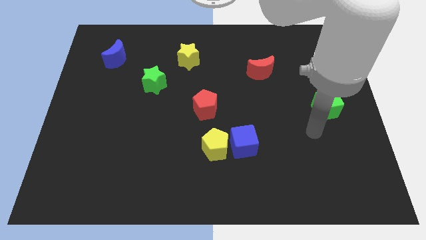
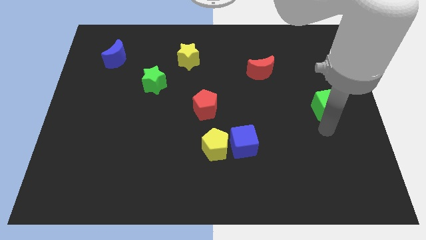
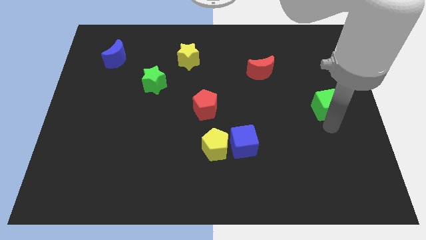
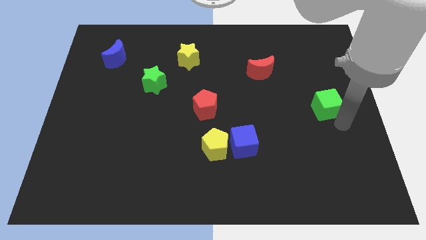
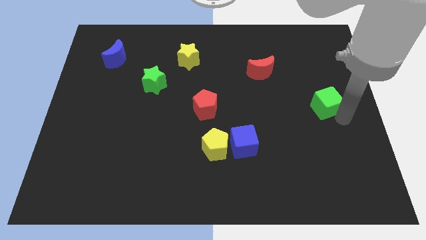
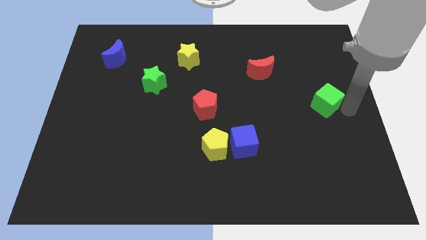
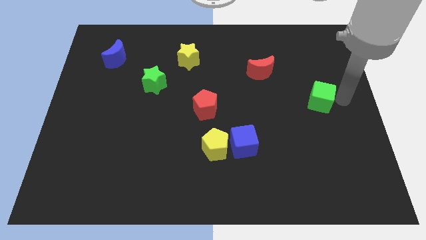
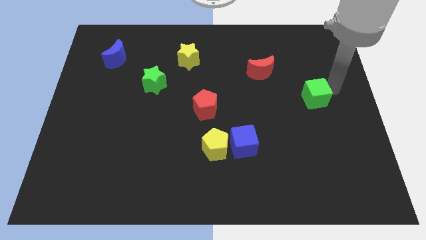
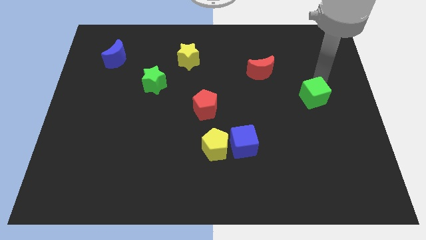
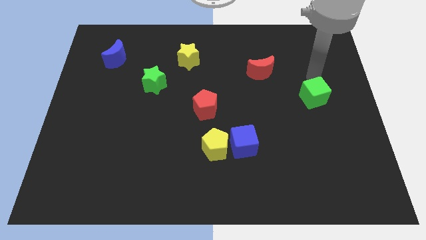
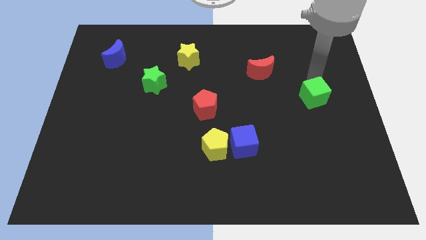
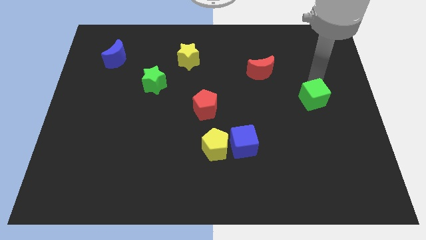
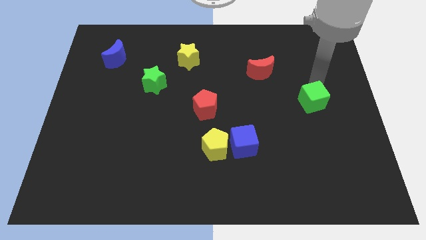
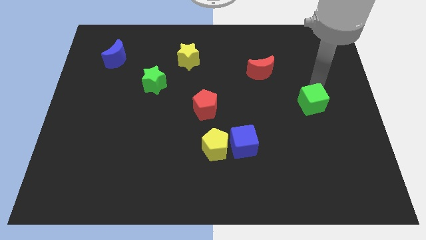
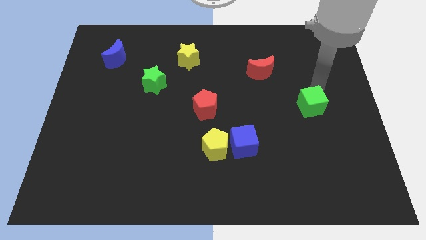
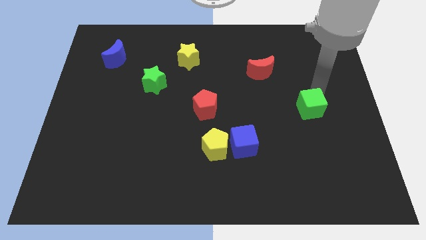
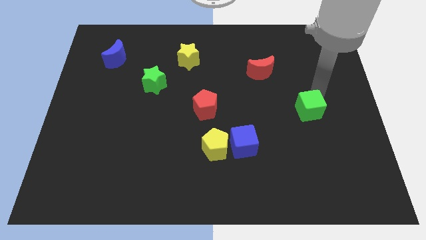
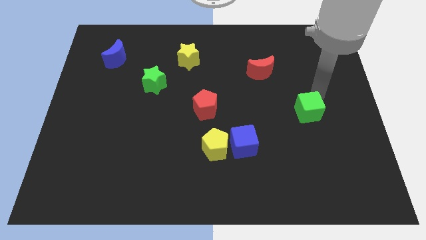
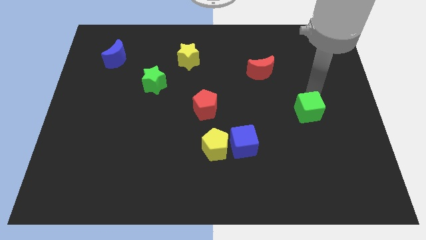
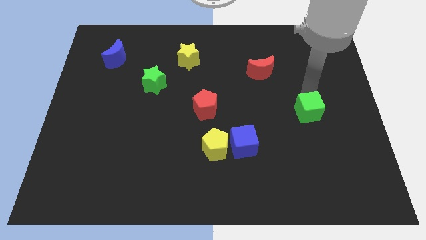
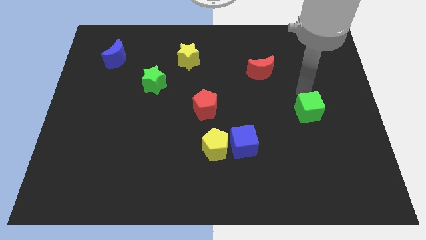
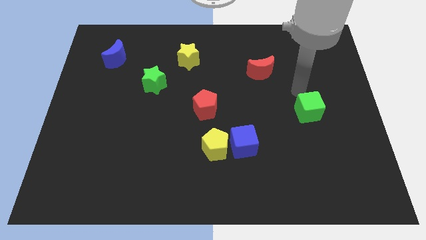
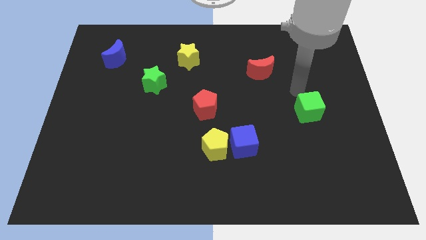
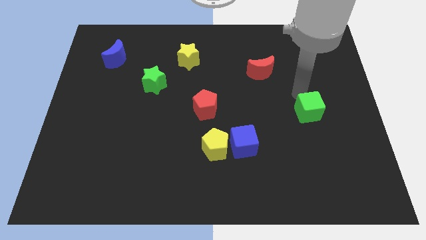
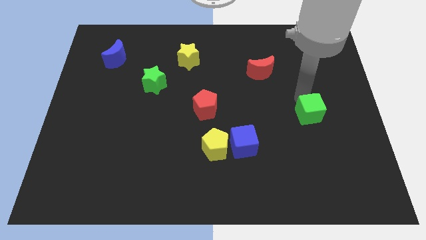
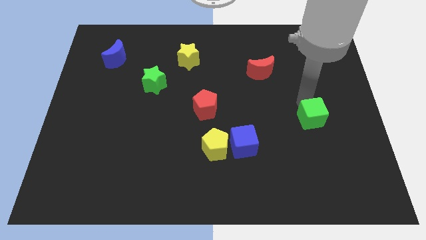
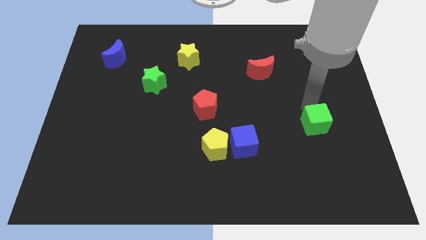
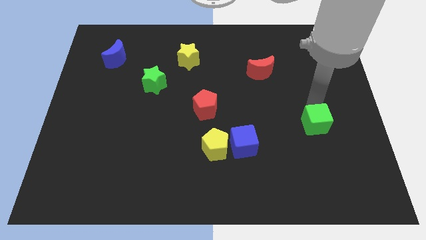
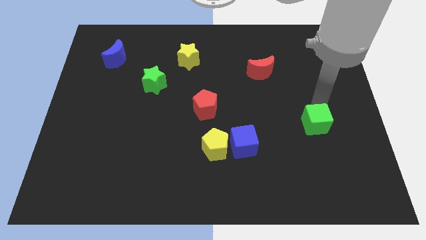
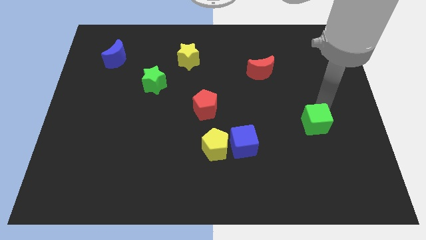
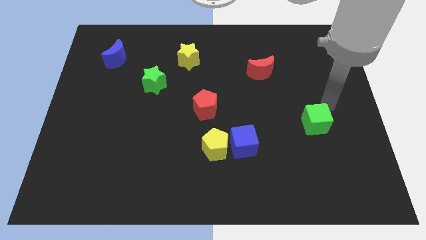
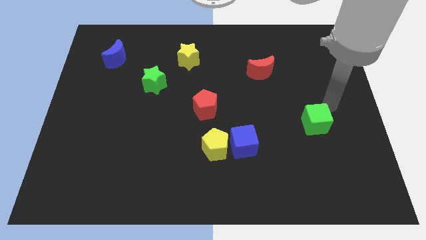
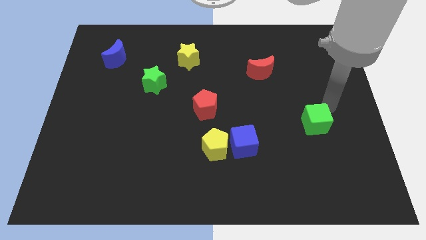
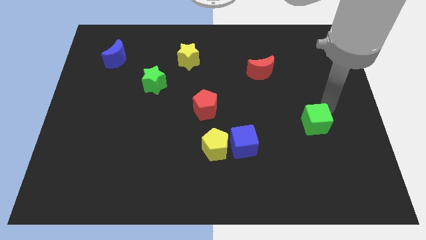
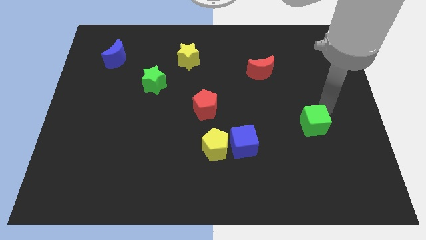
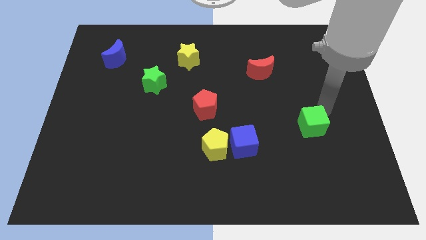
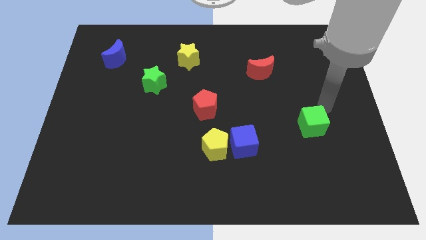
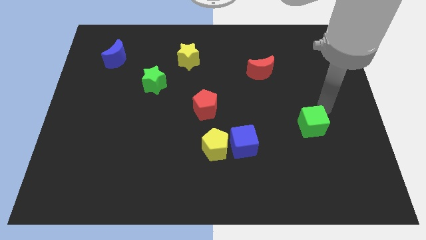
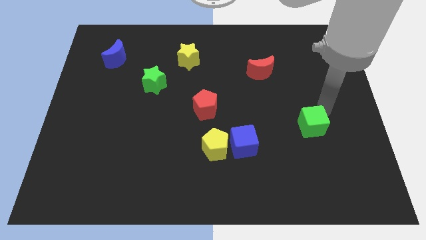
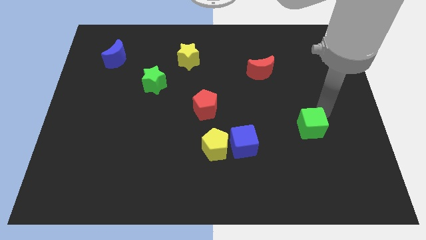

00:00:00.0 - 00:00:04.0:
slightly slide the green cube diagonally downwards and to the left

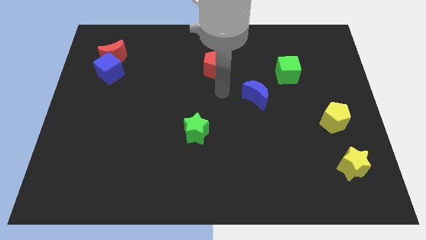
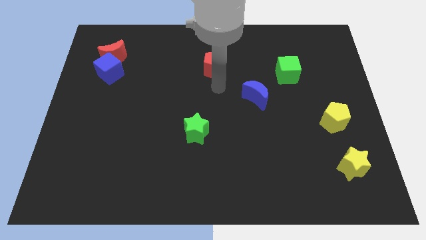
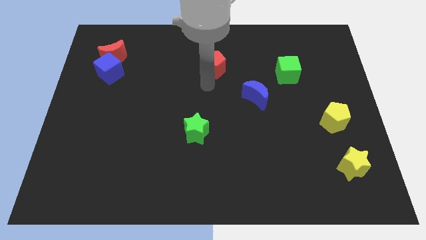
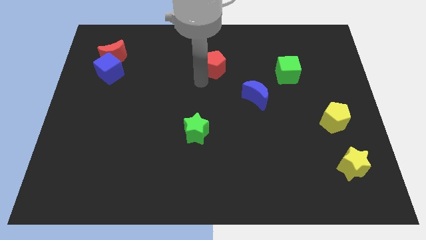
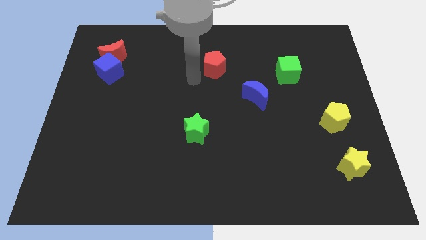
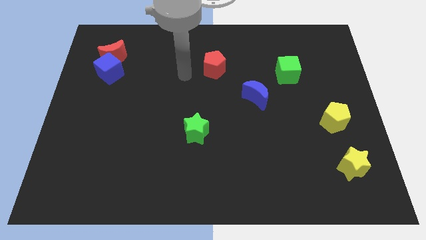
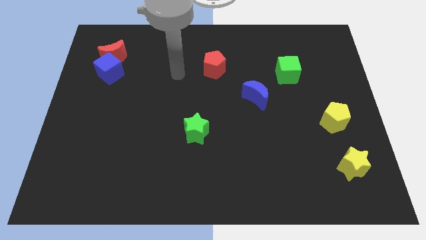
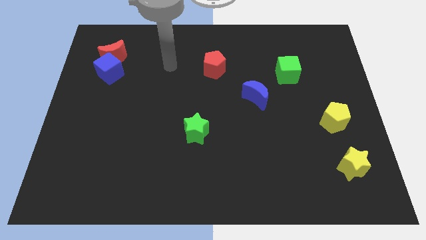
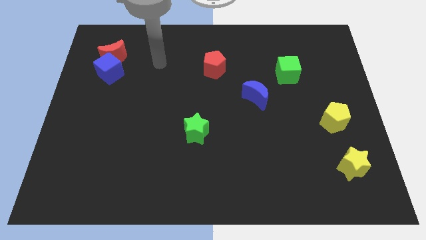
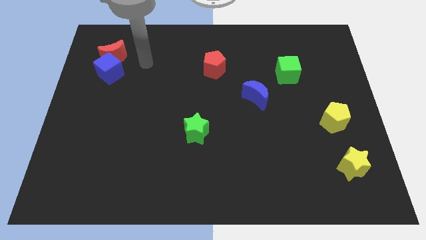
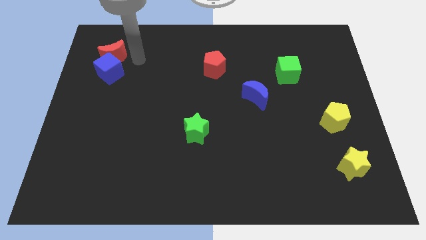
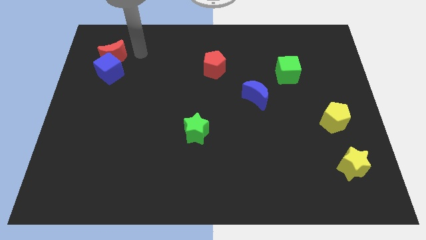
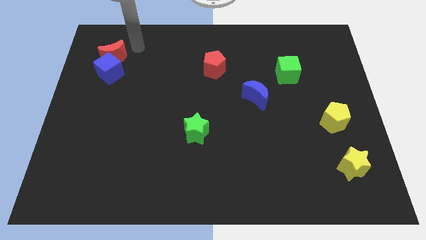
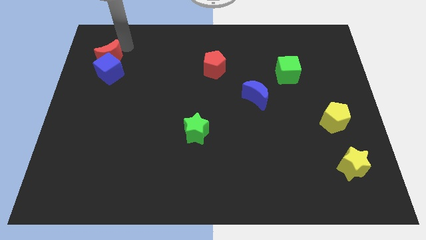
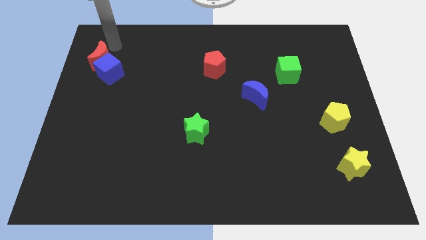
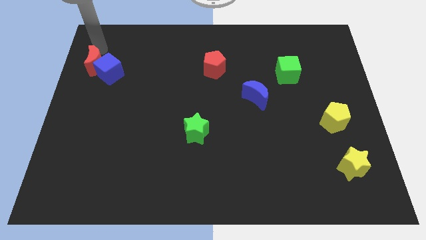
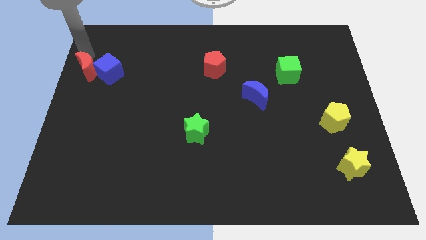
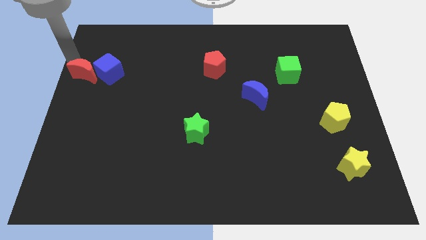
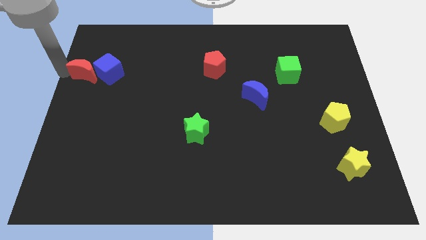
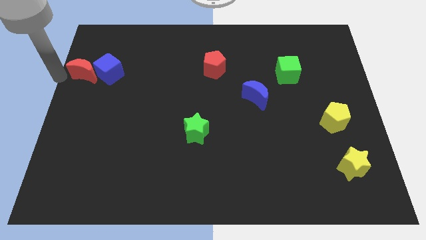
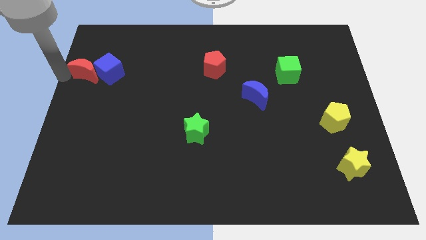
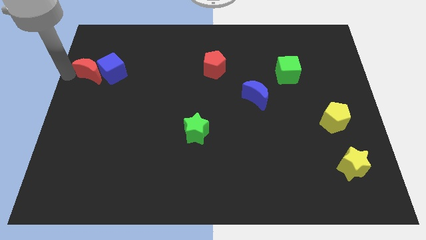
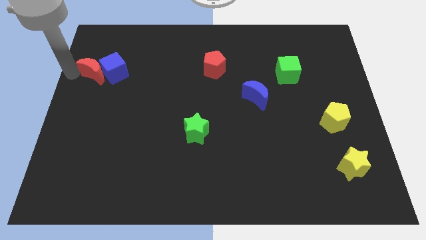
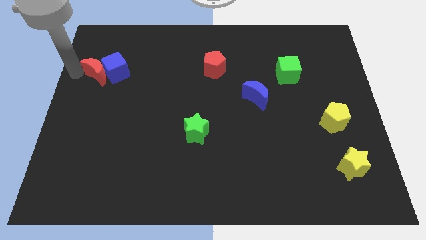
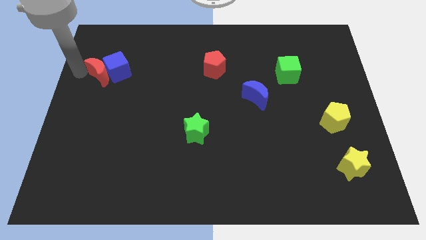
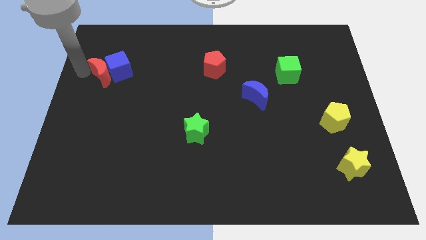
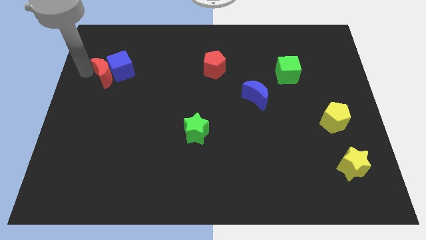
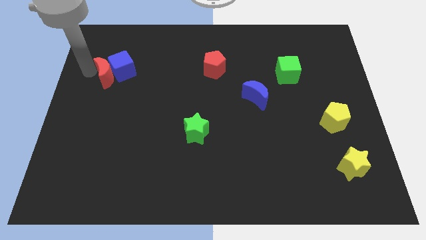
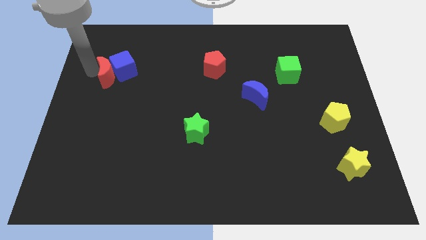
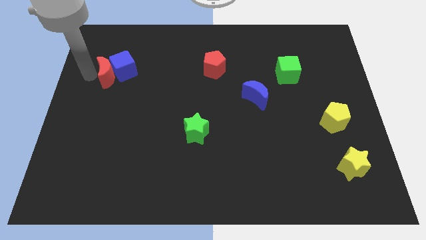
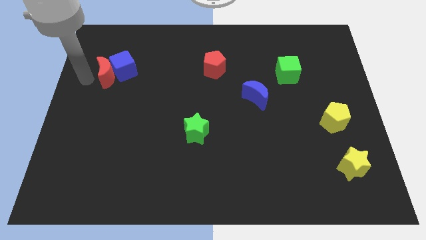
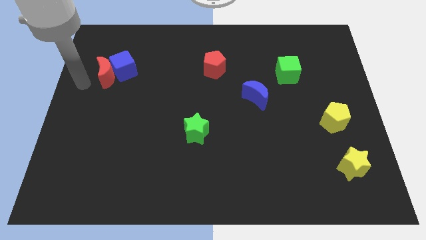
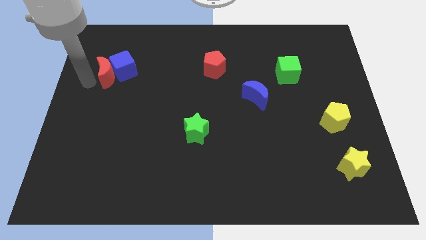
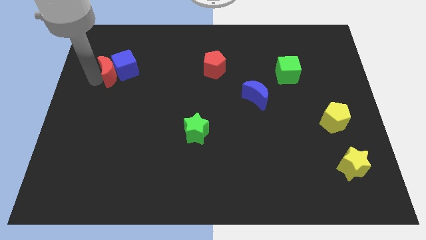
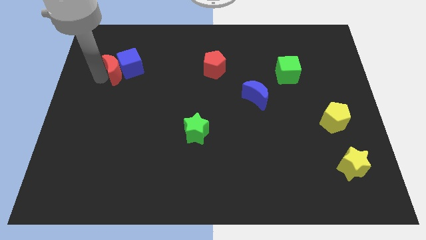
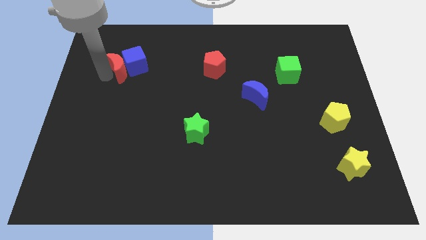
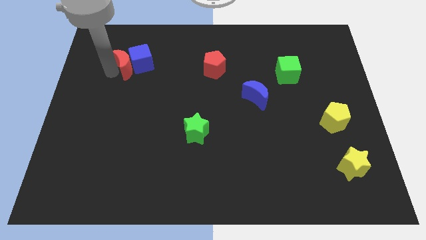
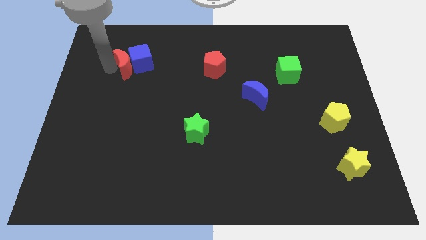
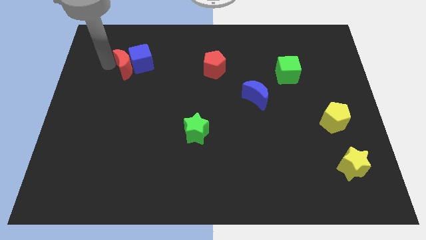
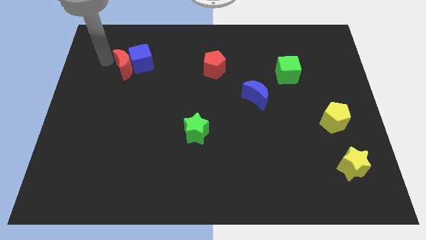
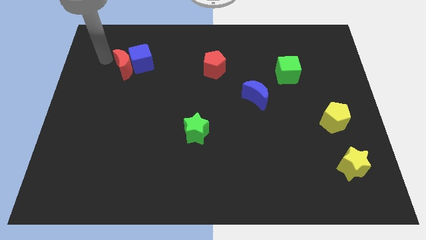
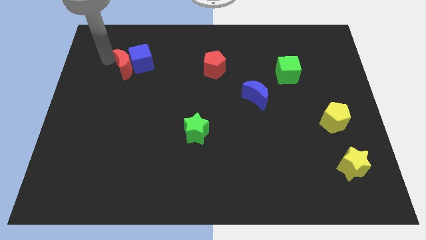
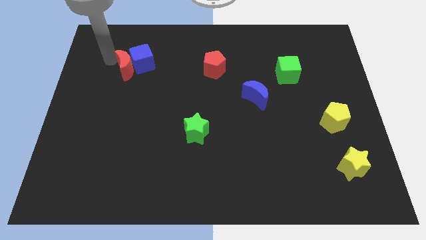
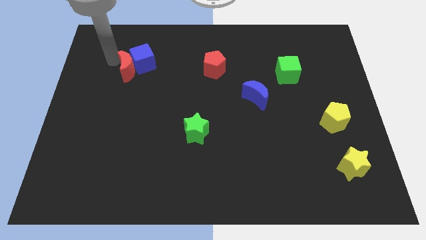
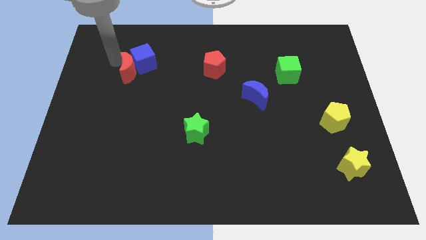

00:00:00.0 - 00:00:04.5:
push the red moon down and then to the right a little
